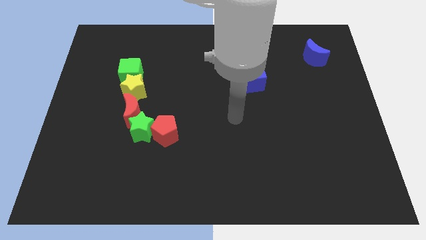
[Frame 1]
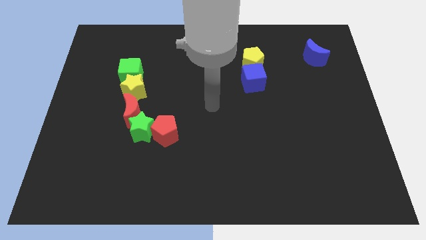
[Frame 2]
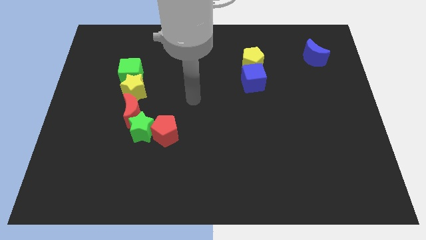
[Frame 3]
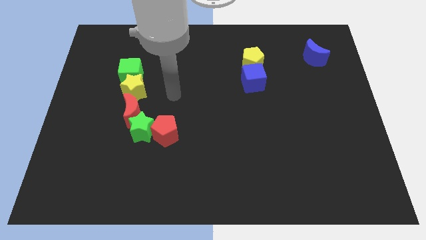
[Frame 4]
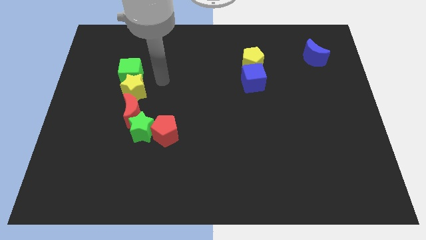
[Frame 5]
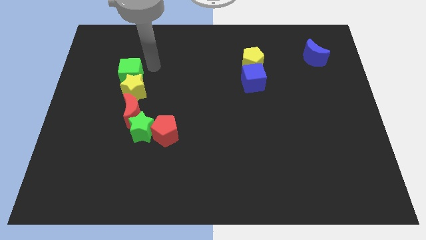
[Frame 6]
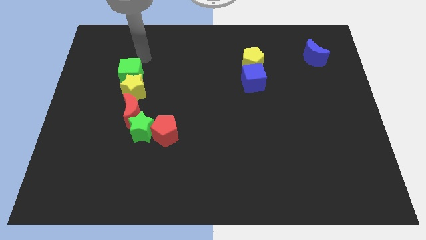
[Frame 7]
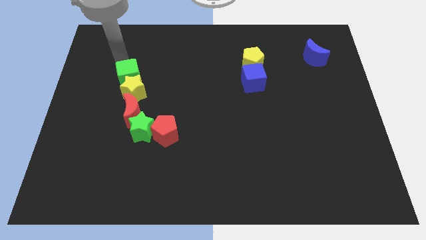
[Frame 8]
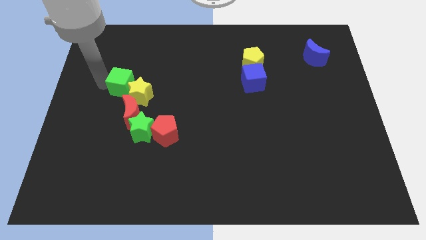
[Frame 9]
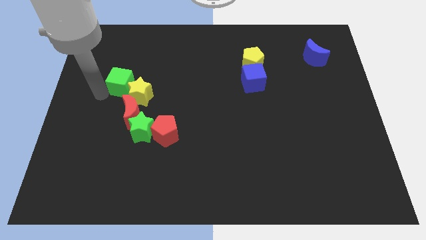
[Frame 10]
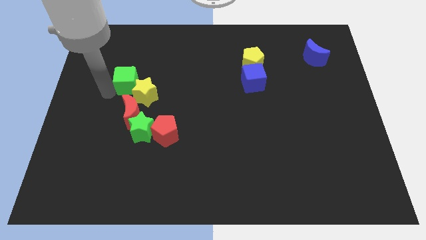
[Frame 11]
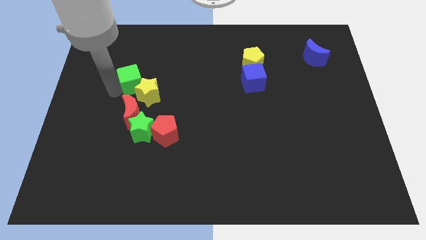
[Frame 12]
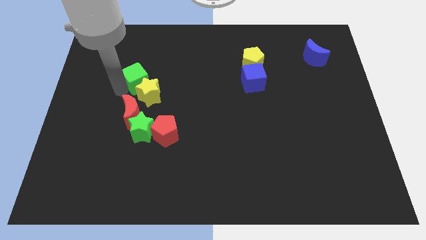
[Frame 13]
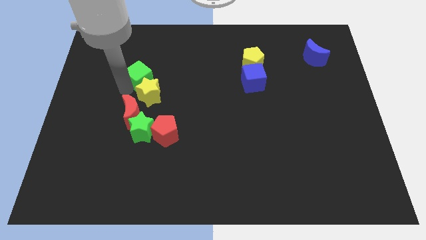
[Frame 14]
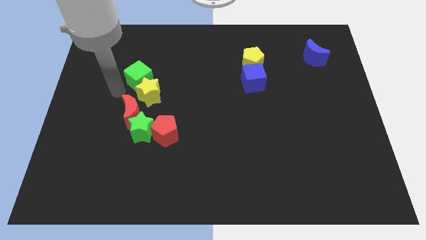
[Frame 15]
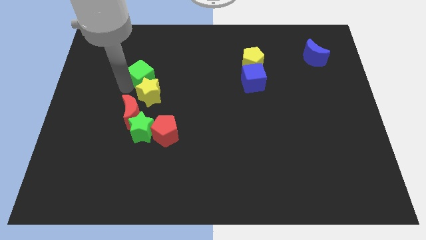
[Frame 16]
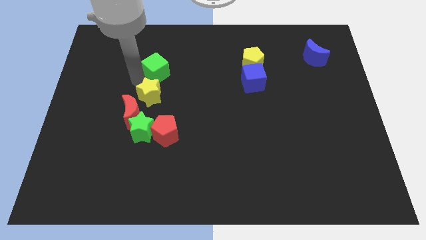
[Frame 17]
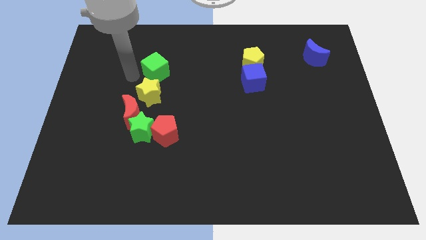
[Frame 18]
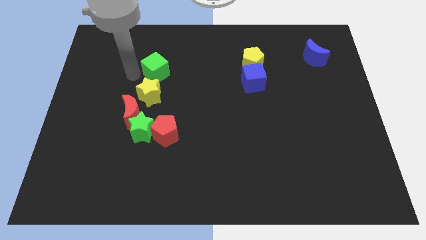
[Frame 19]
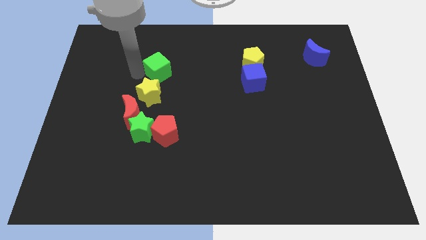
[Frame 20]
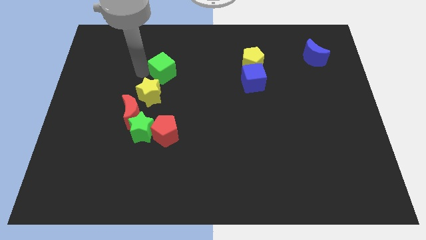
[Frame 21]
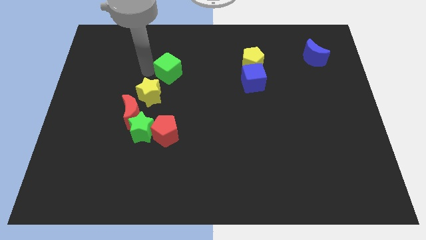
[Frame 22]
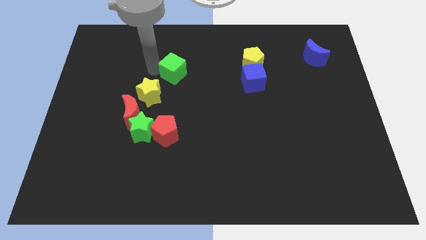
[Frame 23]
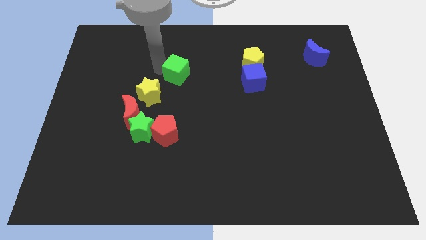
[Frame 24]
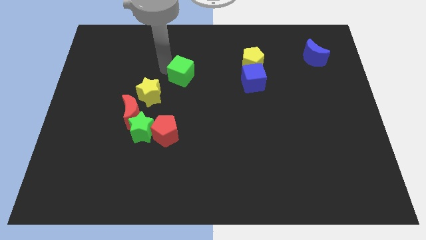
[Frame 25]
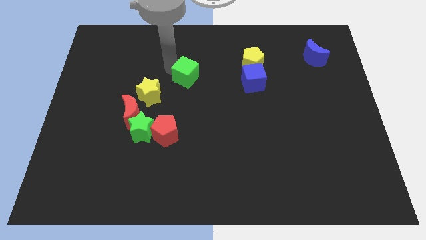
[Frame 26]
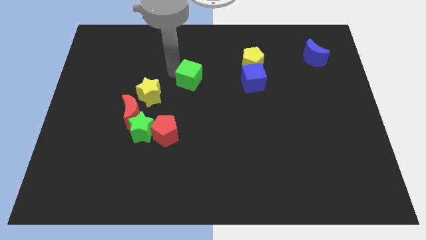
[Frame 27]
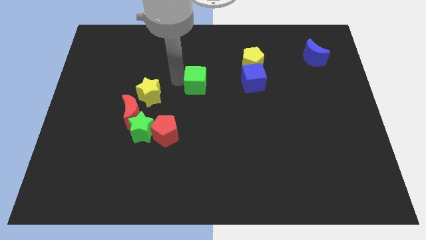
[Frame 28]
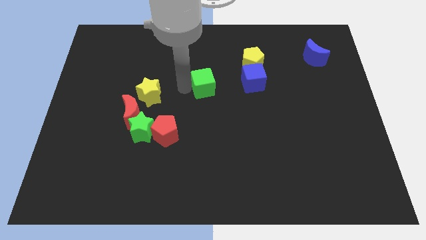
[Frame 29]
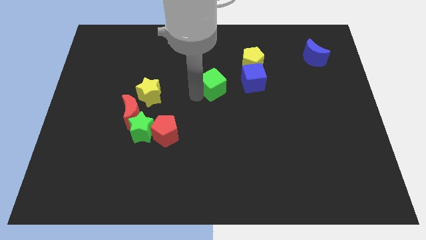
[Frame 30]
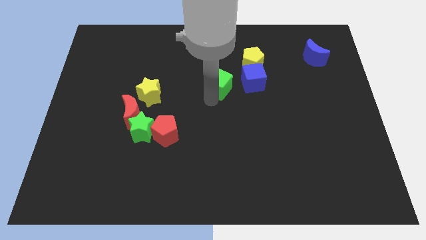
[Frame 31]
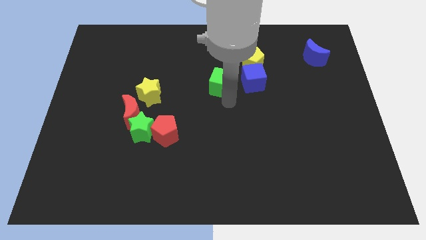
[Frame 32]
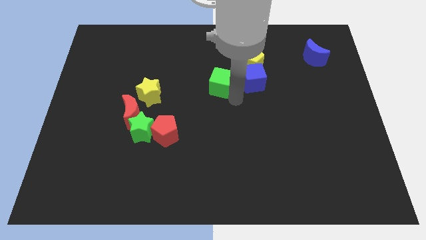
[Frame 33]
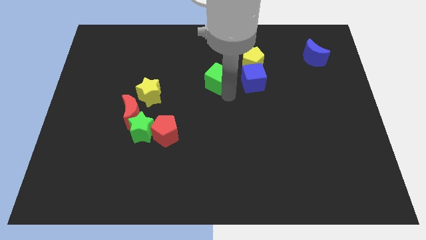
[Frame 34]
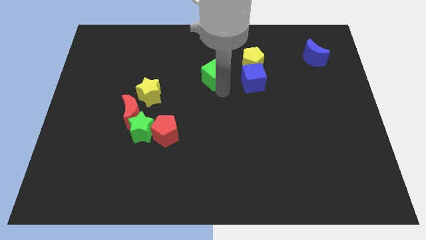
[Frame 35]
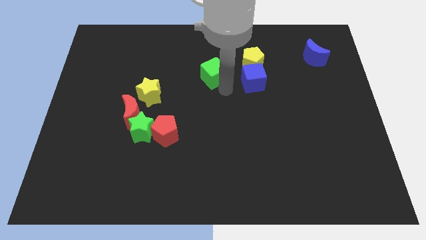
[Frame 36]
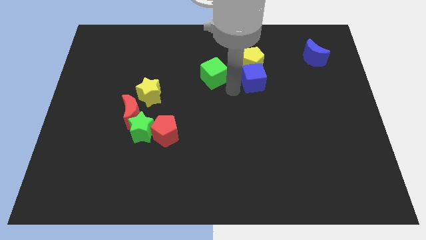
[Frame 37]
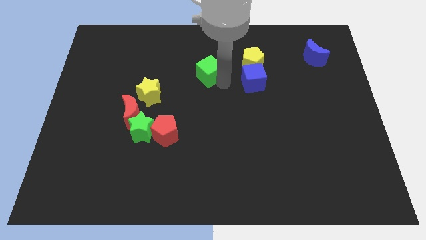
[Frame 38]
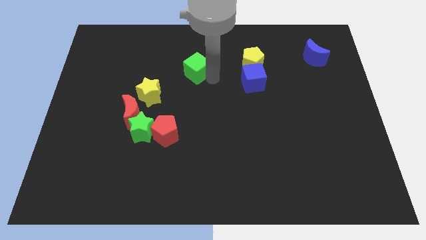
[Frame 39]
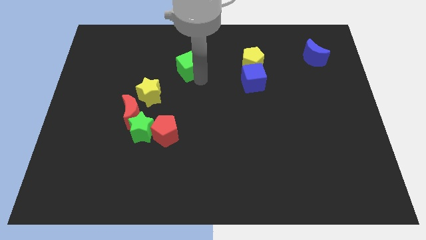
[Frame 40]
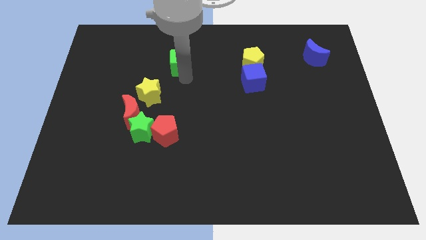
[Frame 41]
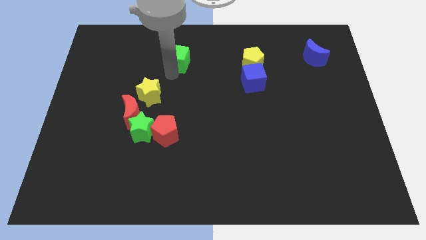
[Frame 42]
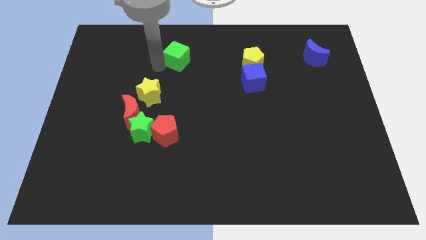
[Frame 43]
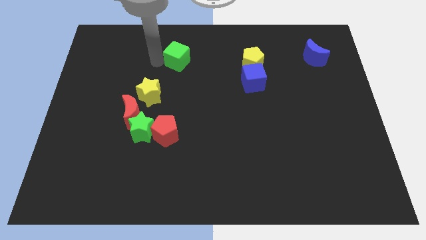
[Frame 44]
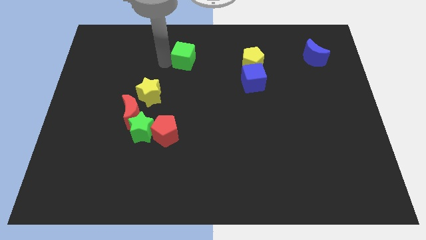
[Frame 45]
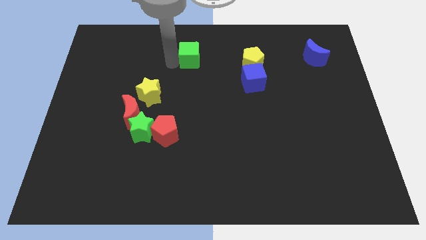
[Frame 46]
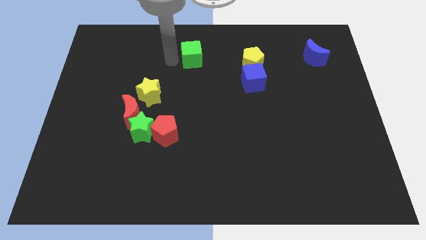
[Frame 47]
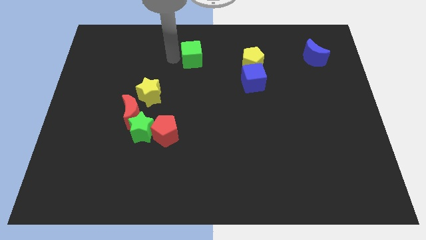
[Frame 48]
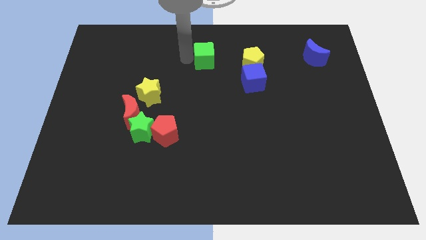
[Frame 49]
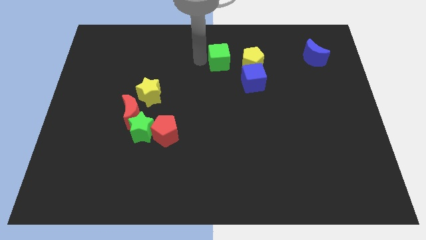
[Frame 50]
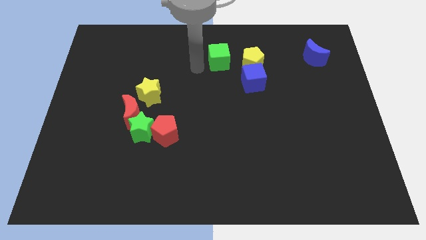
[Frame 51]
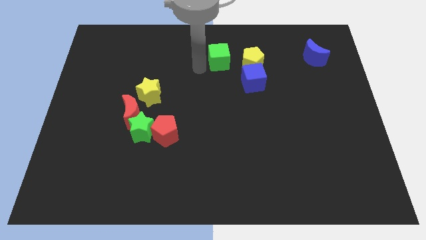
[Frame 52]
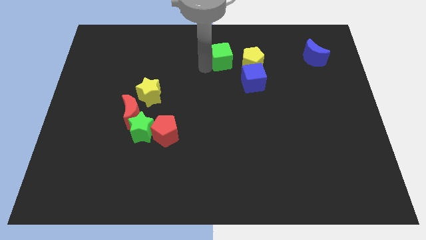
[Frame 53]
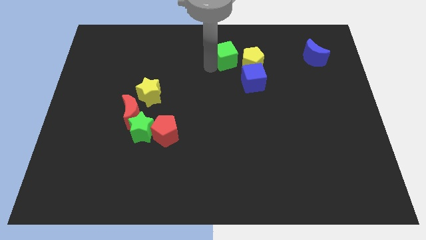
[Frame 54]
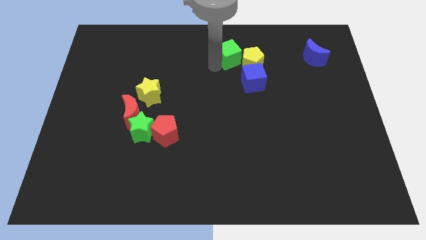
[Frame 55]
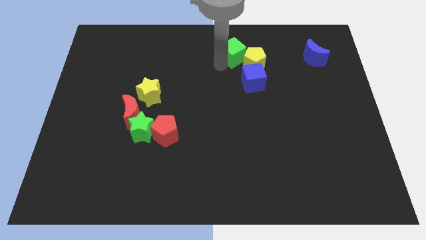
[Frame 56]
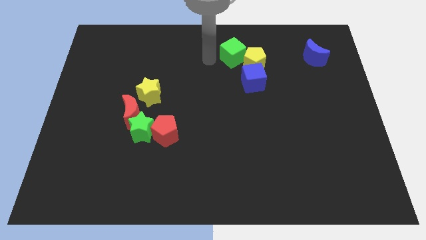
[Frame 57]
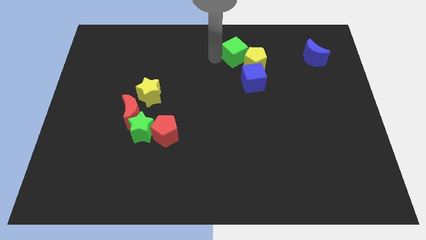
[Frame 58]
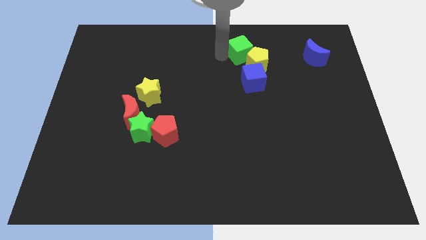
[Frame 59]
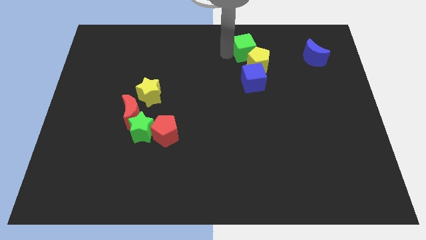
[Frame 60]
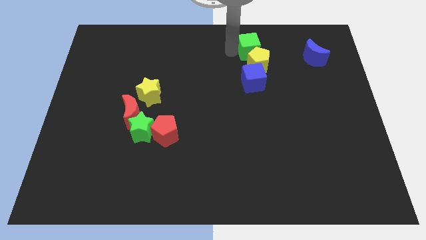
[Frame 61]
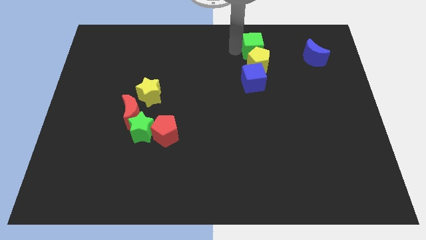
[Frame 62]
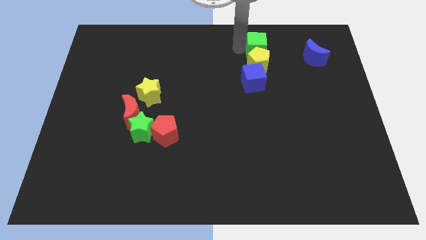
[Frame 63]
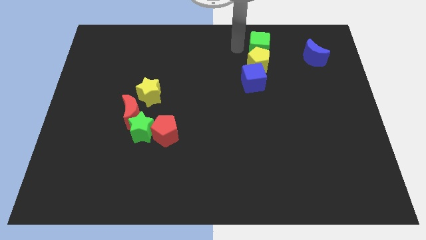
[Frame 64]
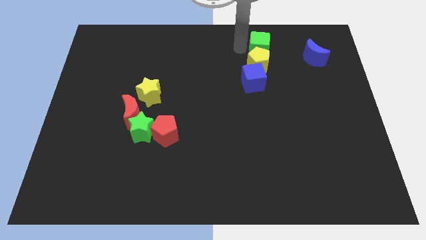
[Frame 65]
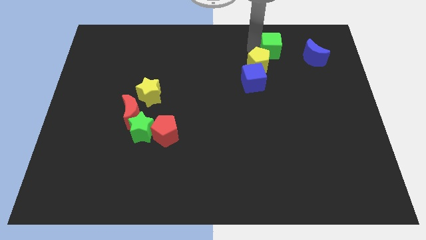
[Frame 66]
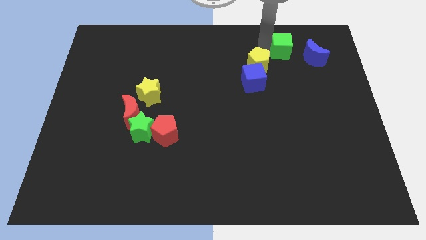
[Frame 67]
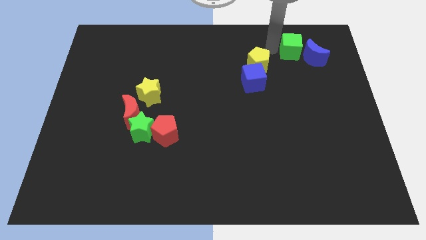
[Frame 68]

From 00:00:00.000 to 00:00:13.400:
push the green cube towards the blue moon

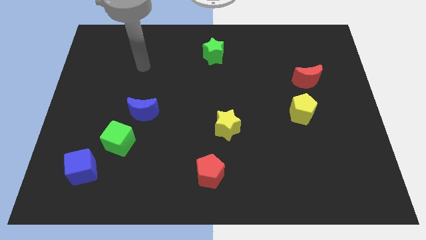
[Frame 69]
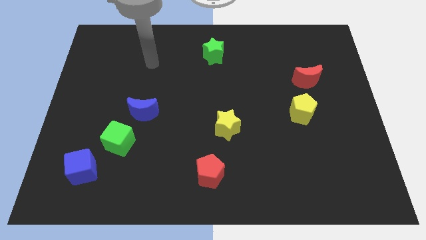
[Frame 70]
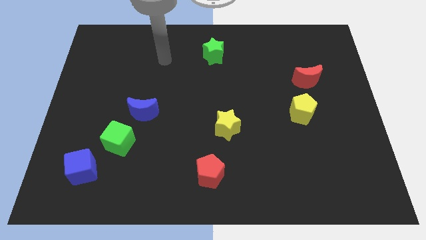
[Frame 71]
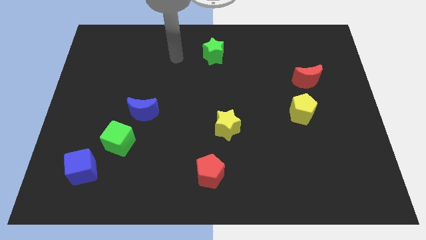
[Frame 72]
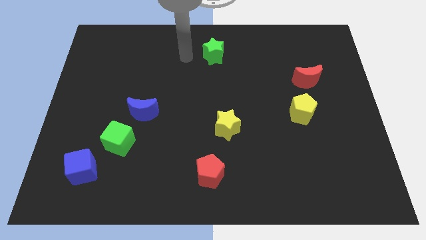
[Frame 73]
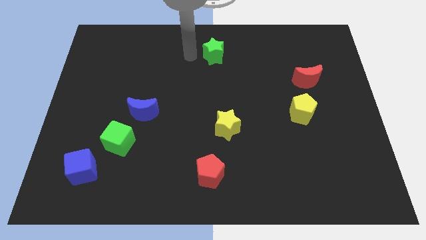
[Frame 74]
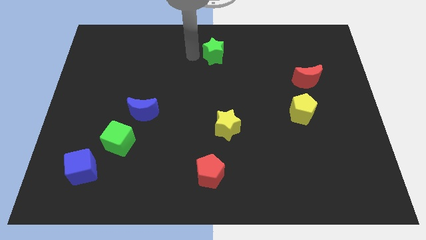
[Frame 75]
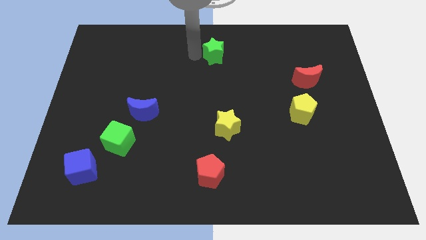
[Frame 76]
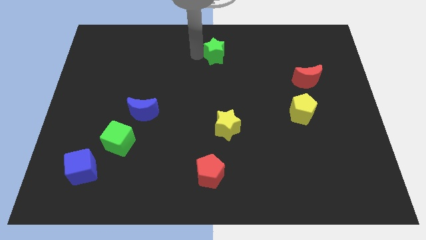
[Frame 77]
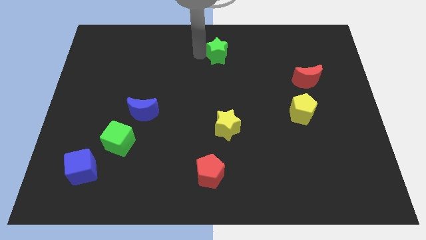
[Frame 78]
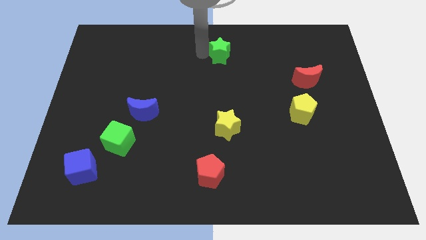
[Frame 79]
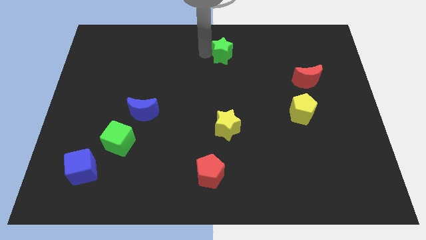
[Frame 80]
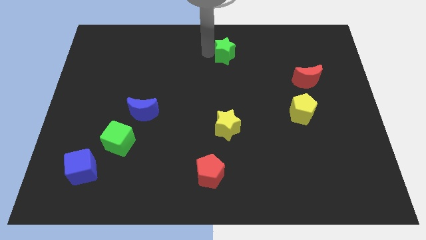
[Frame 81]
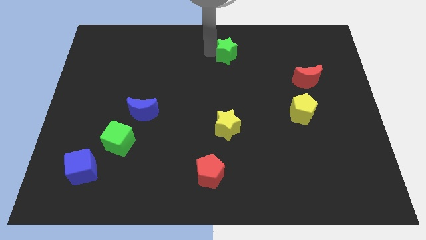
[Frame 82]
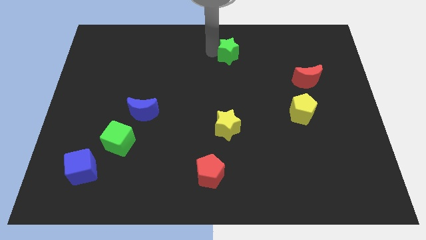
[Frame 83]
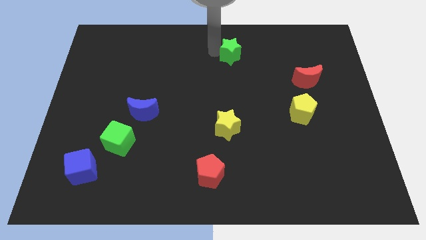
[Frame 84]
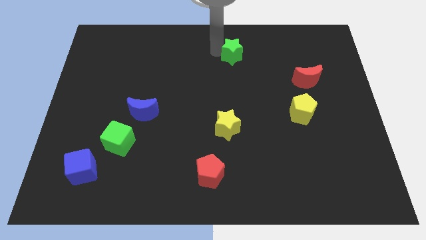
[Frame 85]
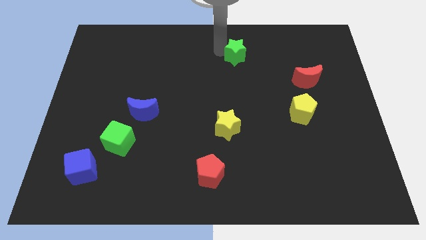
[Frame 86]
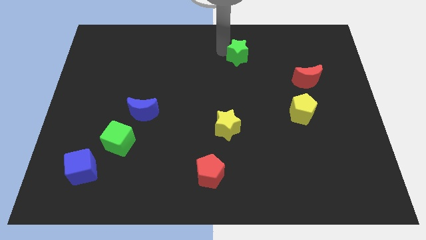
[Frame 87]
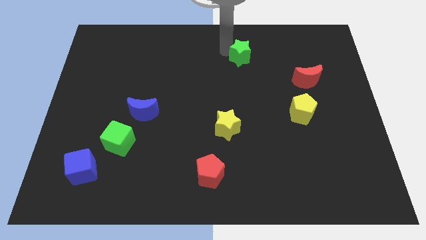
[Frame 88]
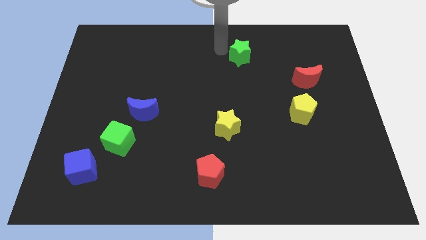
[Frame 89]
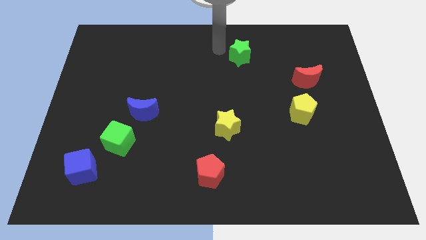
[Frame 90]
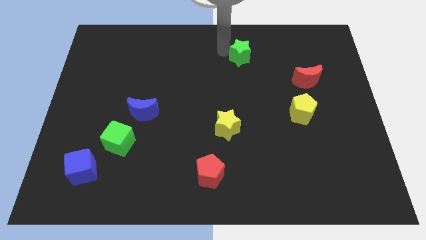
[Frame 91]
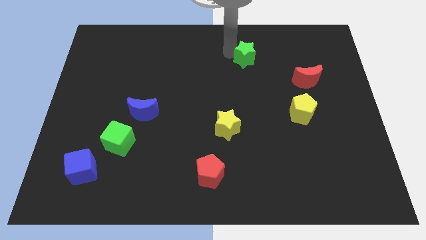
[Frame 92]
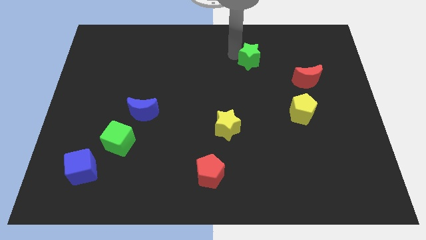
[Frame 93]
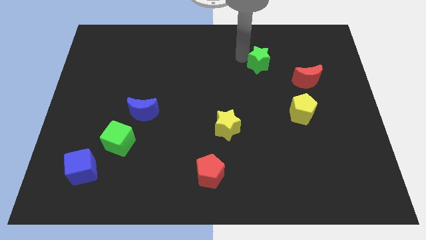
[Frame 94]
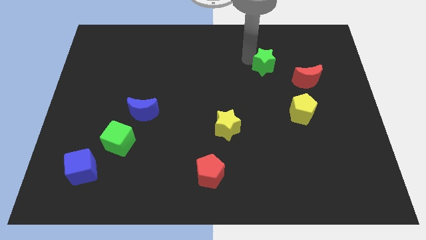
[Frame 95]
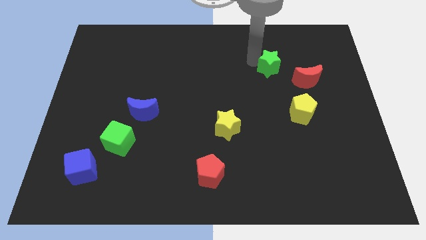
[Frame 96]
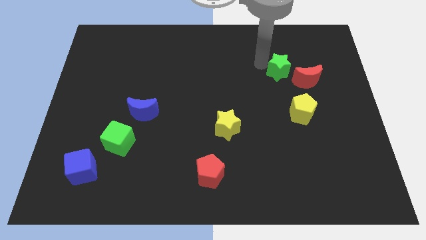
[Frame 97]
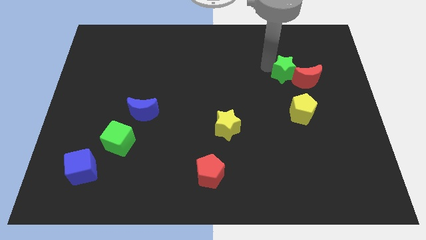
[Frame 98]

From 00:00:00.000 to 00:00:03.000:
move the green star to the red moon
